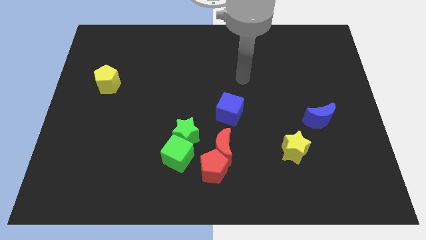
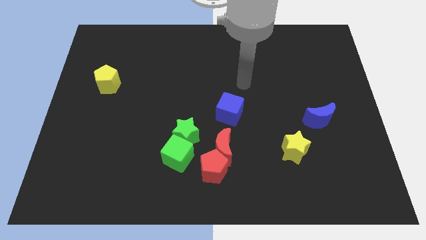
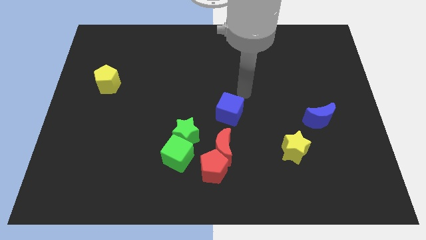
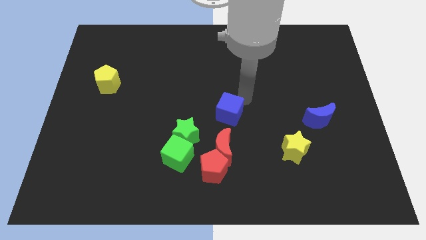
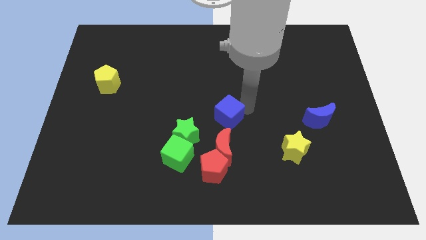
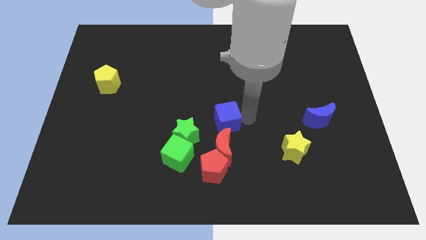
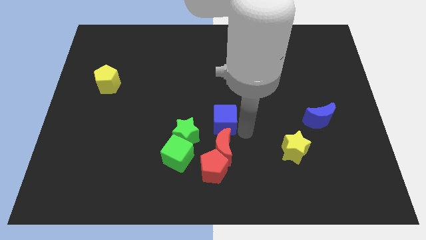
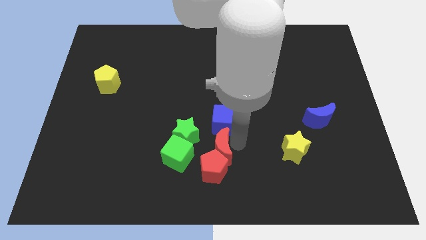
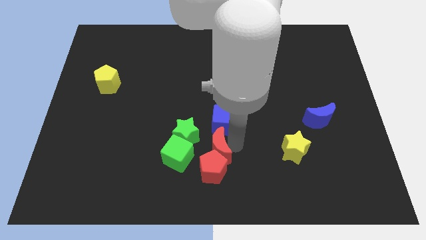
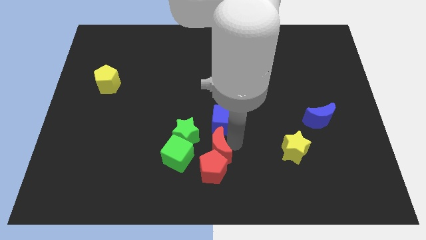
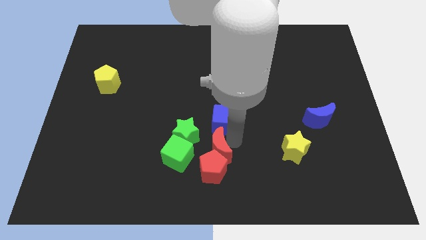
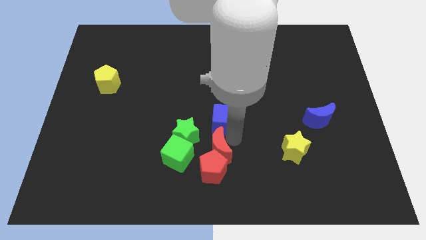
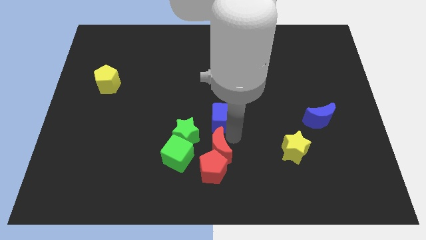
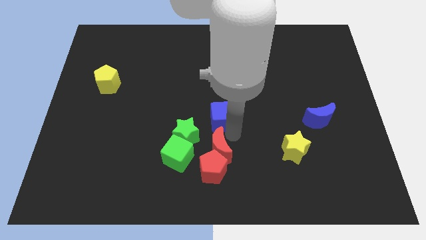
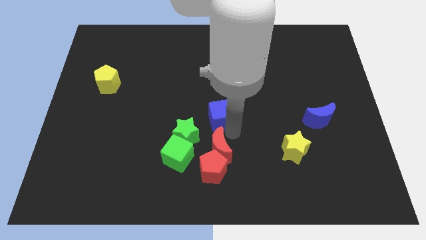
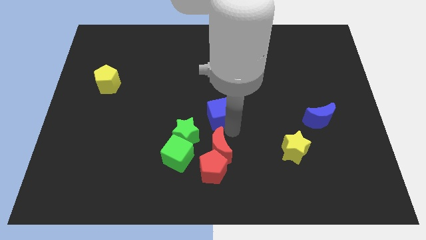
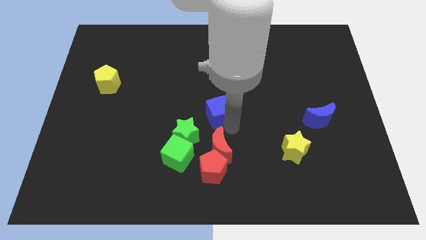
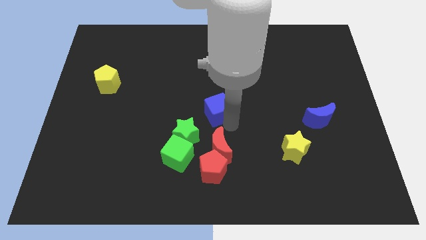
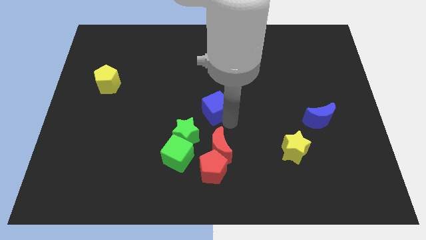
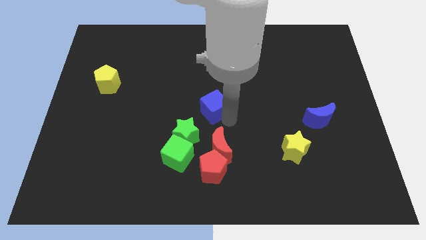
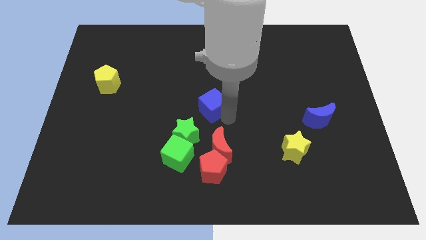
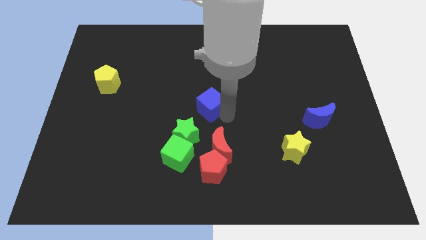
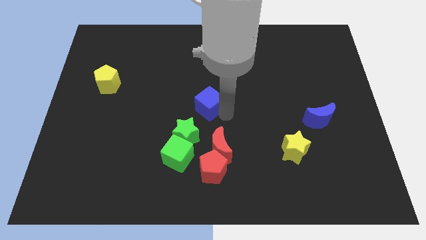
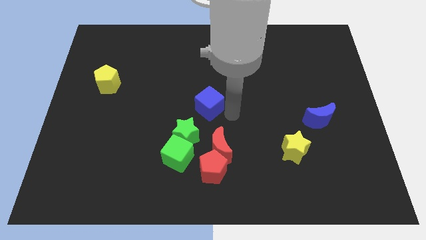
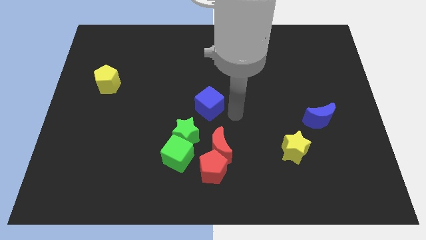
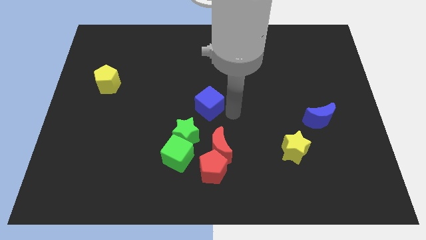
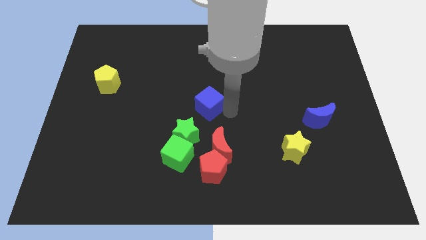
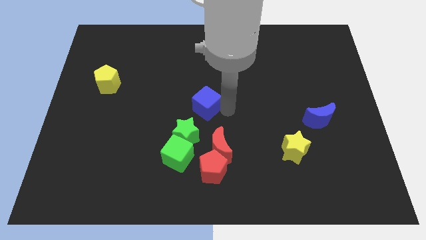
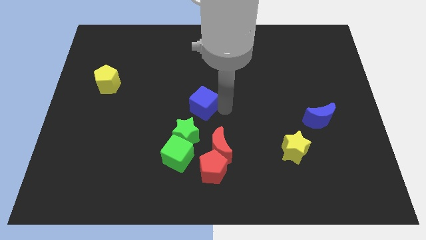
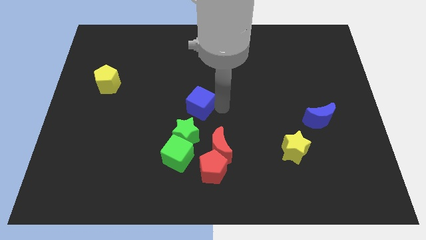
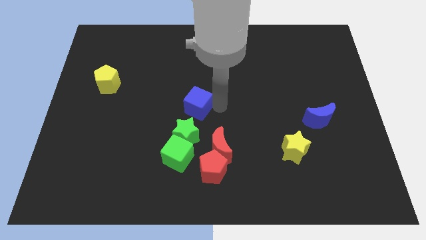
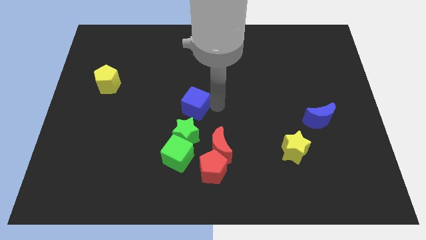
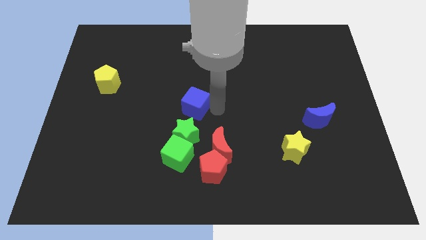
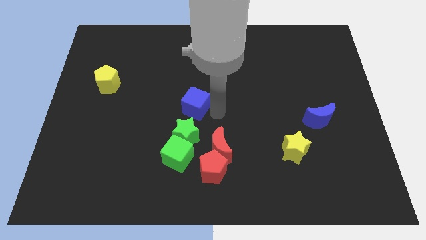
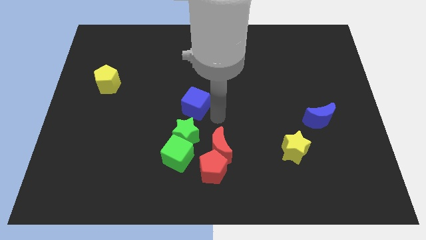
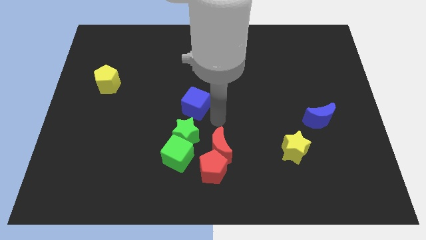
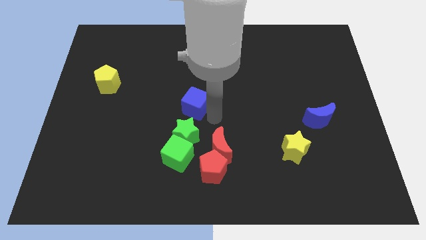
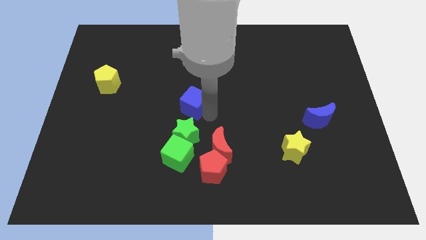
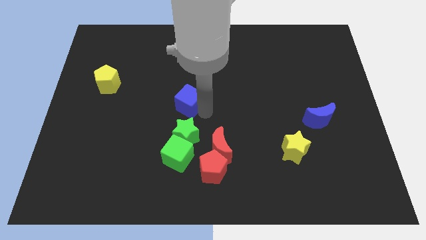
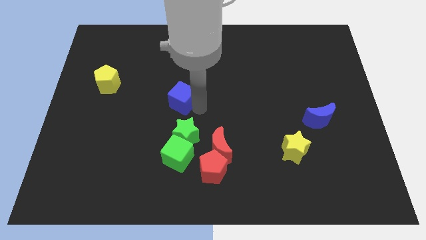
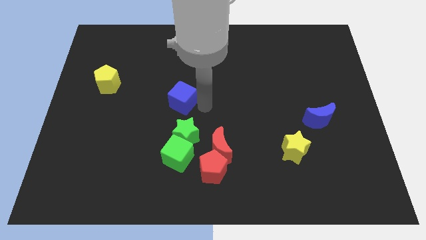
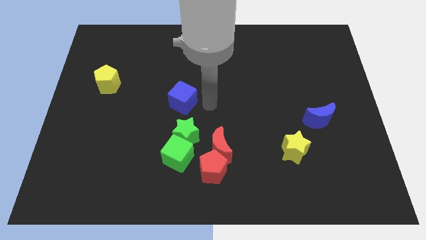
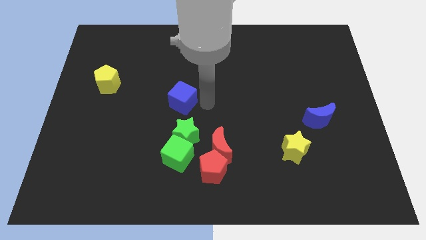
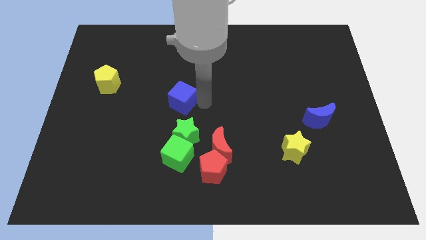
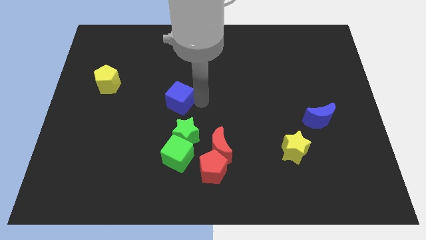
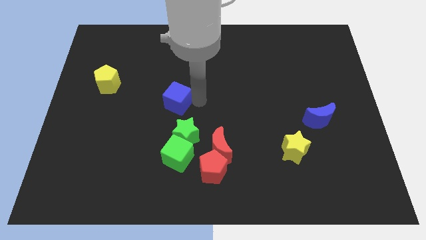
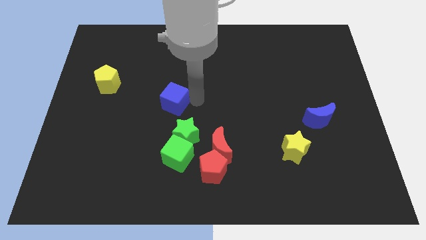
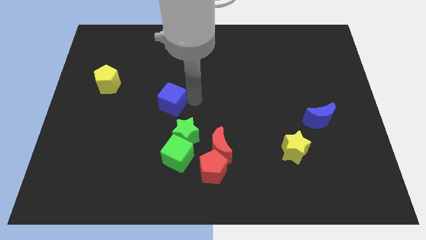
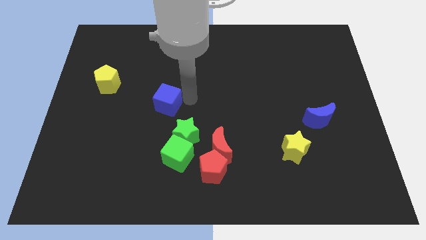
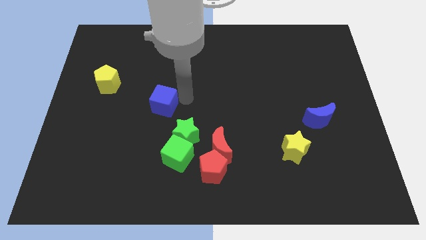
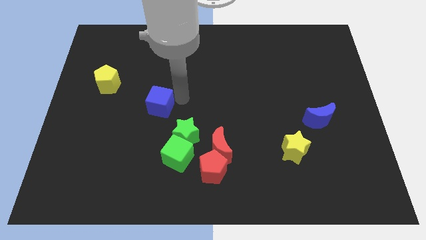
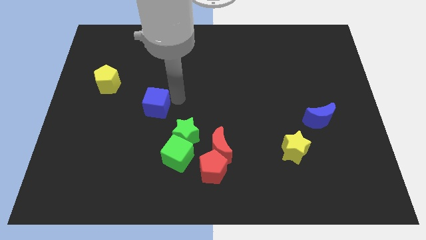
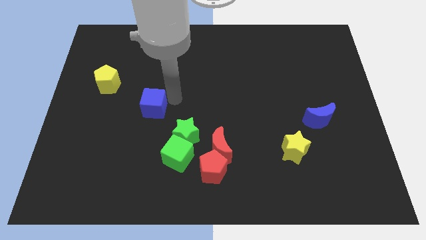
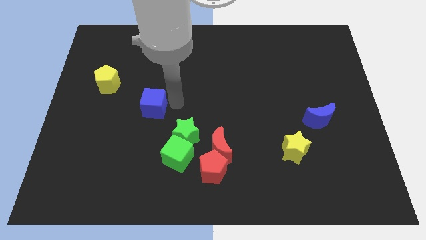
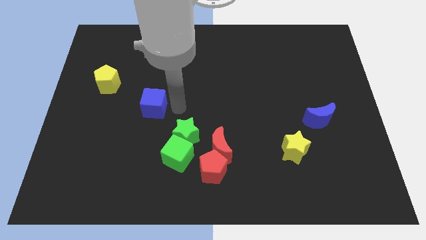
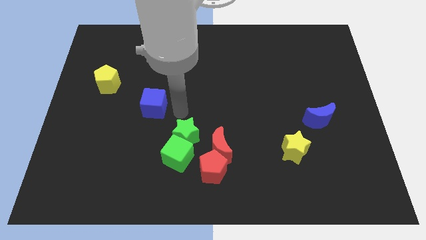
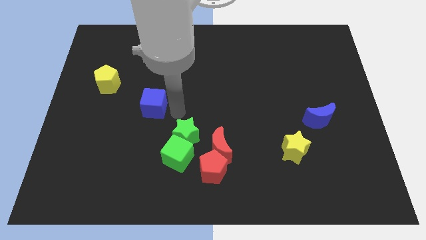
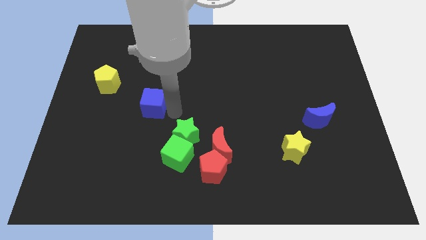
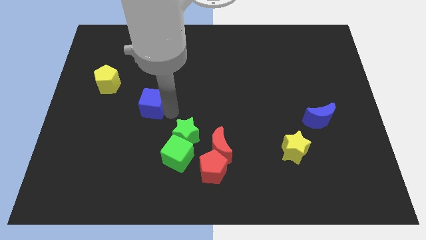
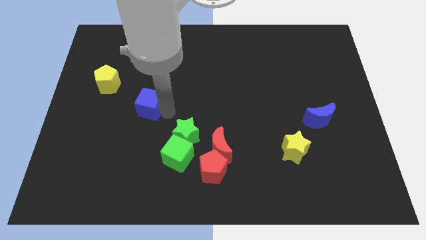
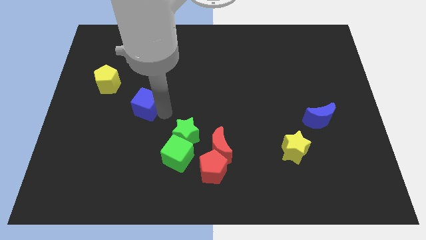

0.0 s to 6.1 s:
slide the blue cube diagonally down and to the right of the yellow pentagon

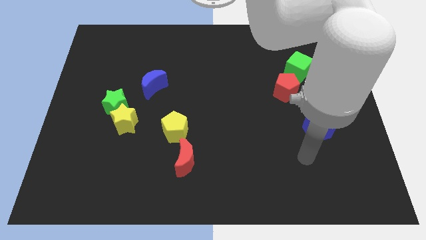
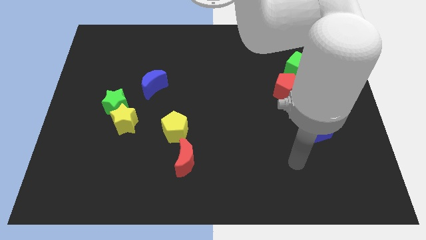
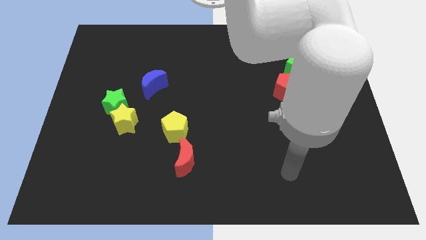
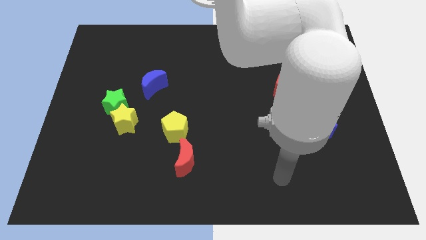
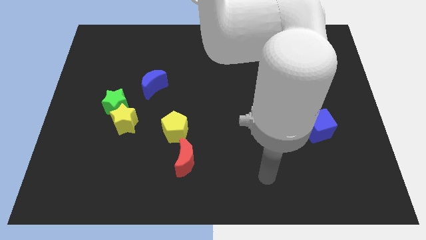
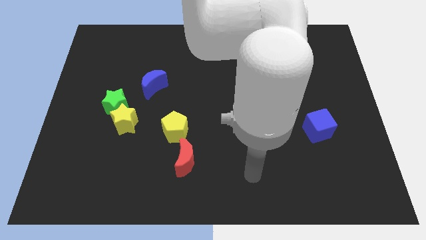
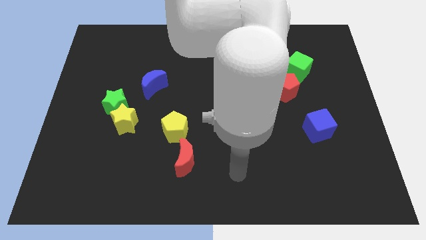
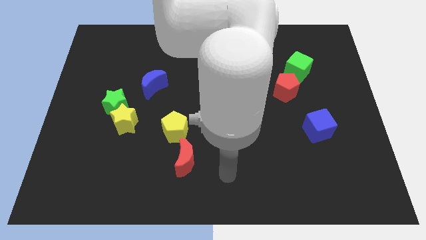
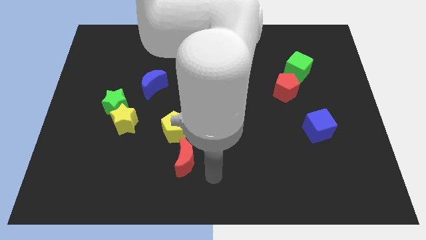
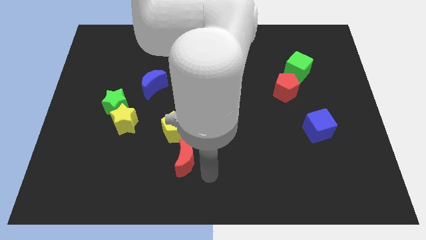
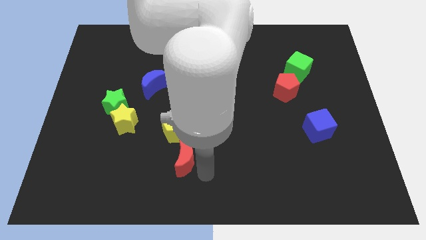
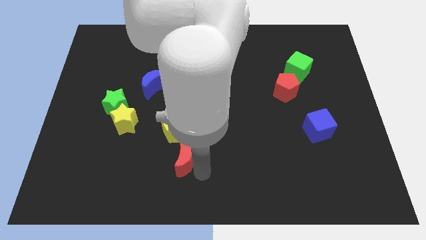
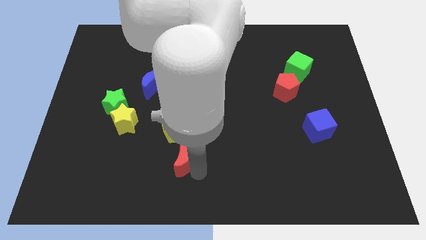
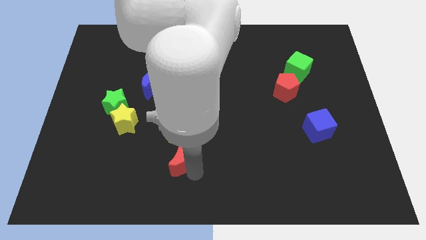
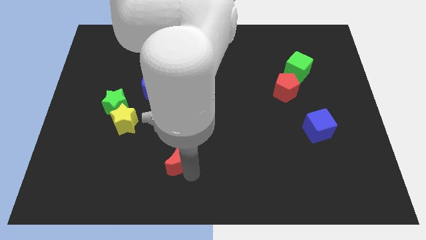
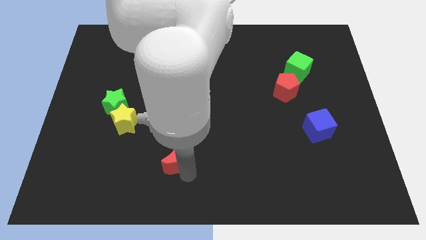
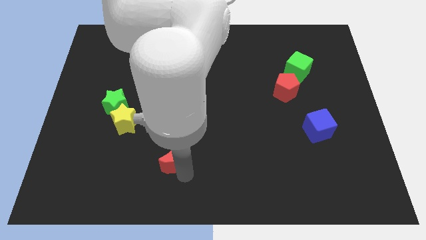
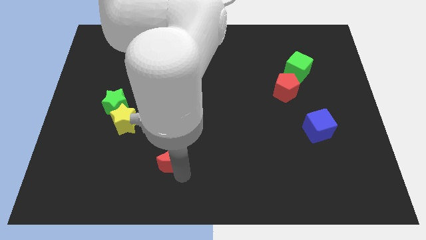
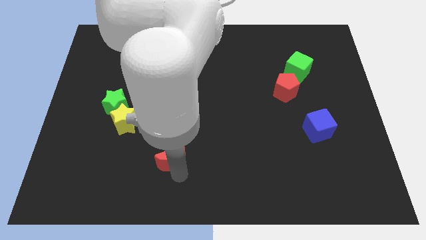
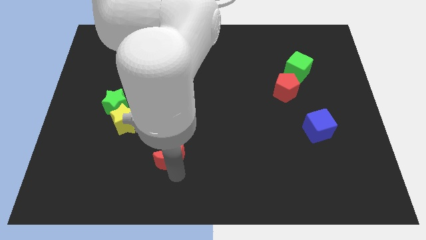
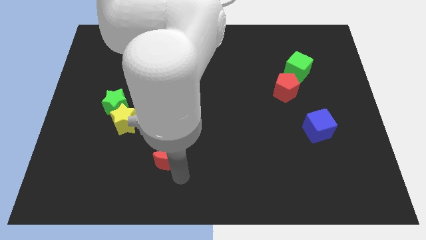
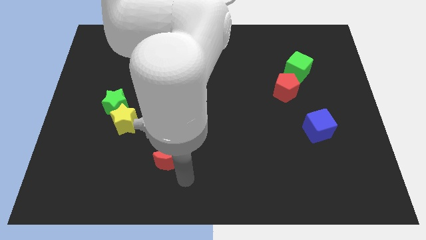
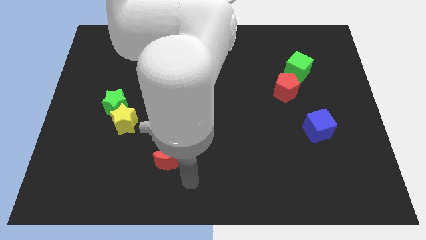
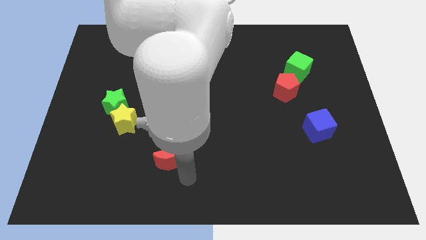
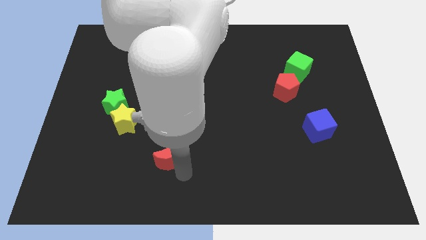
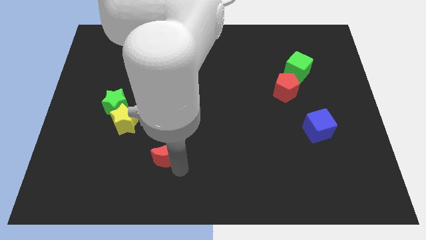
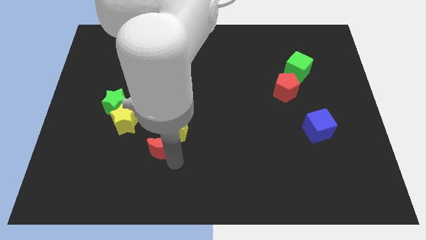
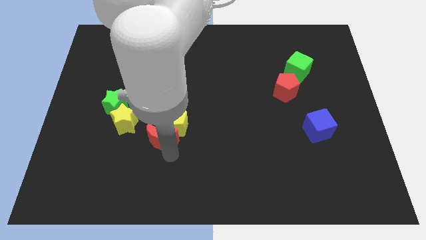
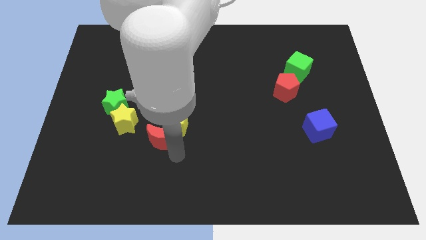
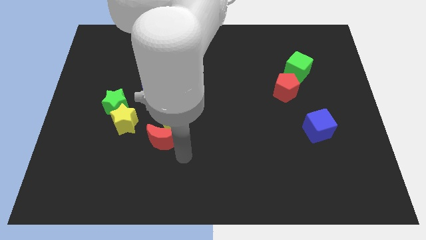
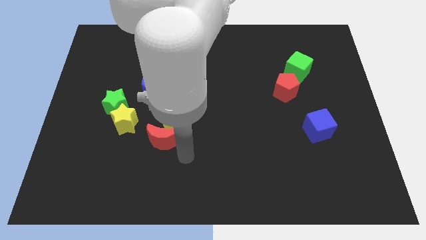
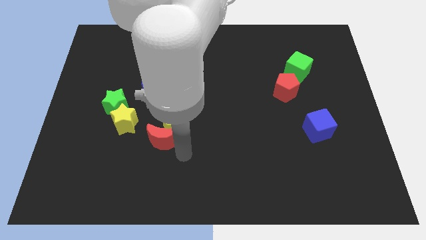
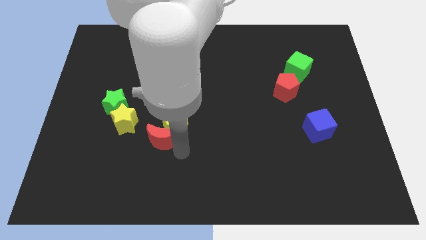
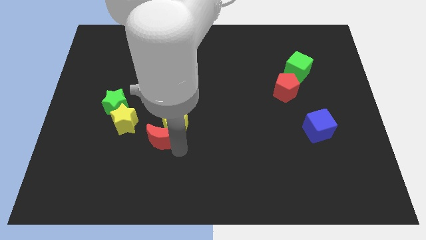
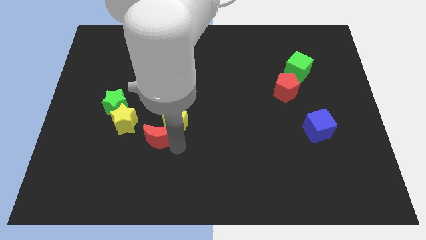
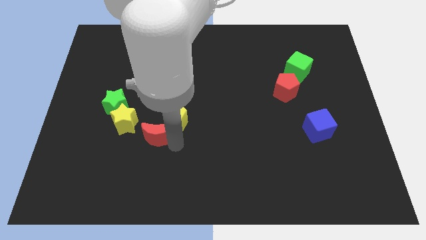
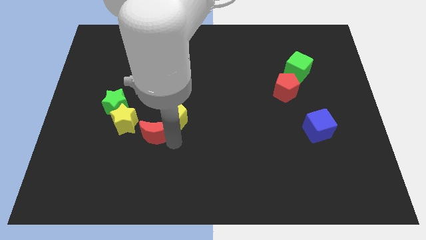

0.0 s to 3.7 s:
put the red moon to the bottom right side of the green star
